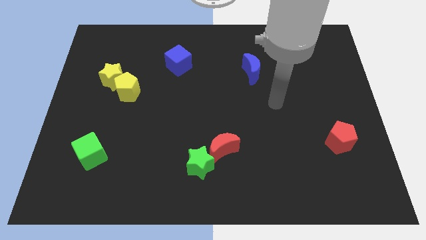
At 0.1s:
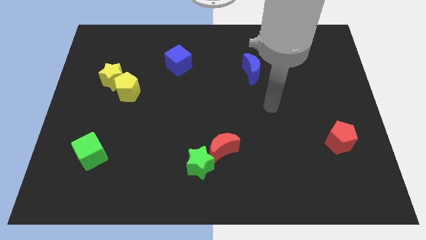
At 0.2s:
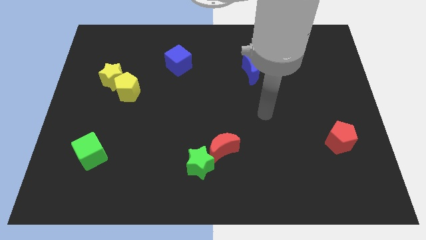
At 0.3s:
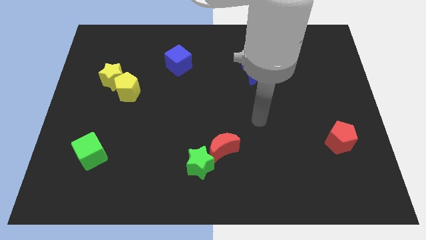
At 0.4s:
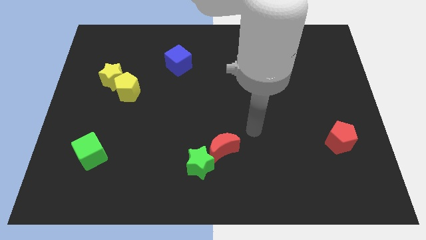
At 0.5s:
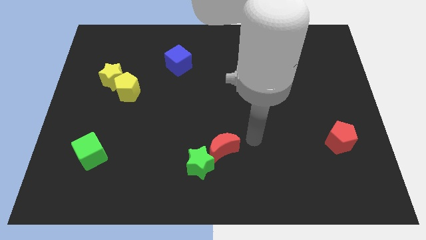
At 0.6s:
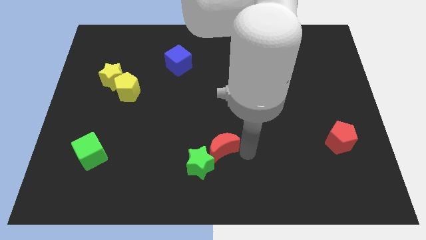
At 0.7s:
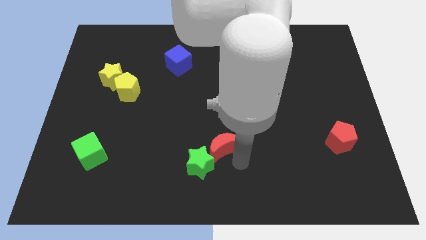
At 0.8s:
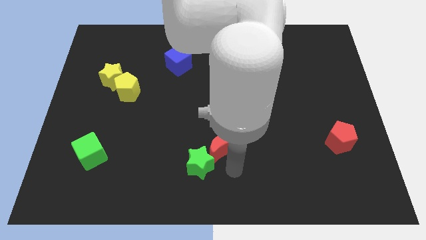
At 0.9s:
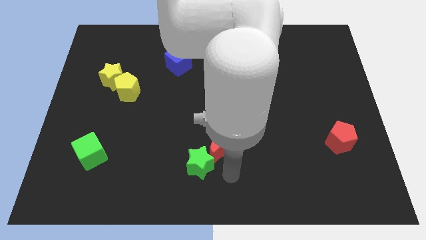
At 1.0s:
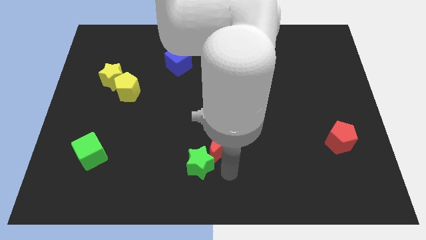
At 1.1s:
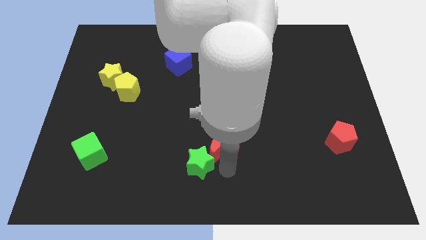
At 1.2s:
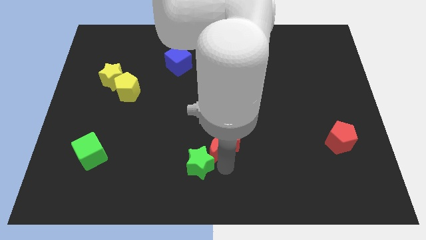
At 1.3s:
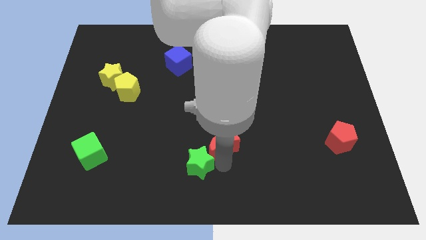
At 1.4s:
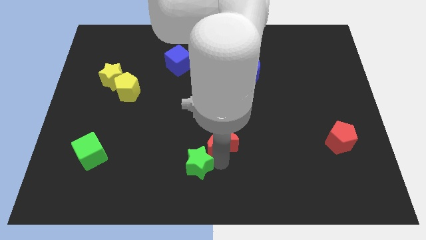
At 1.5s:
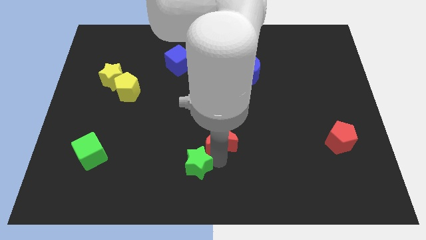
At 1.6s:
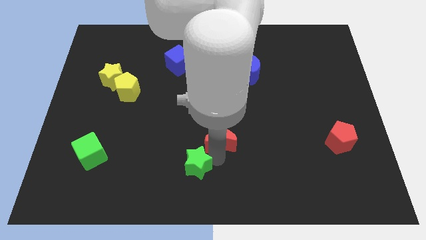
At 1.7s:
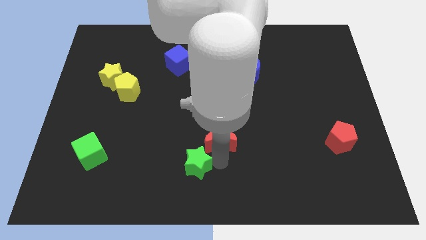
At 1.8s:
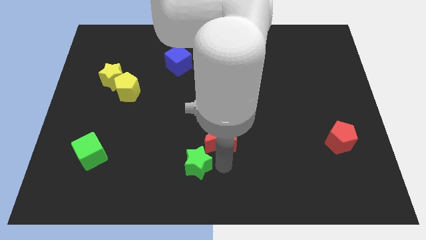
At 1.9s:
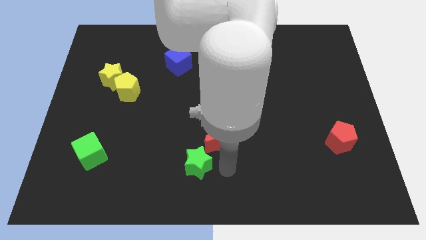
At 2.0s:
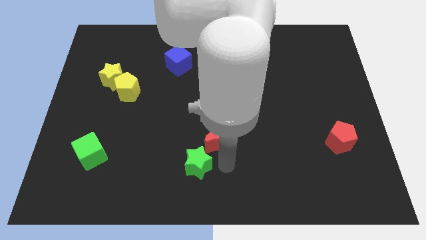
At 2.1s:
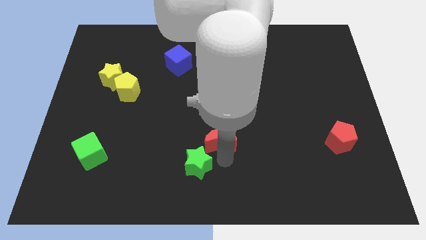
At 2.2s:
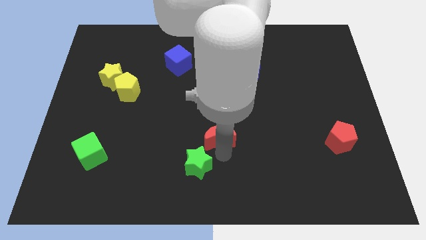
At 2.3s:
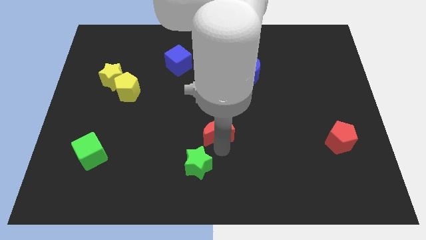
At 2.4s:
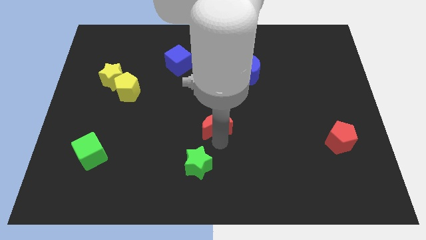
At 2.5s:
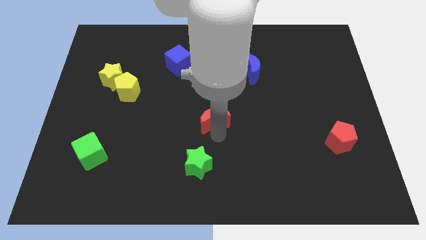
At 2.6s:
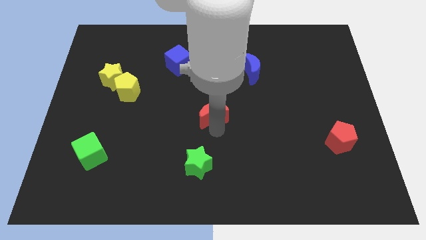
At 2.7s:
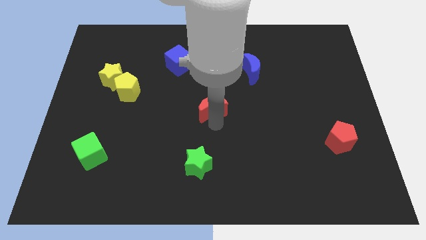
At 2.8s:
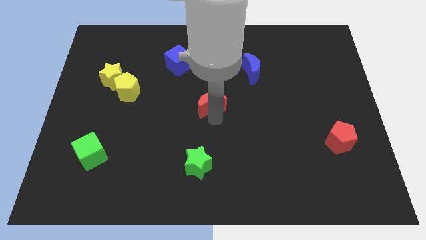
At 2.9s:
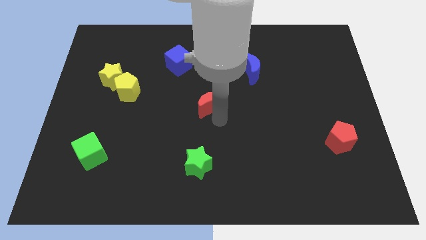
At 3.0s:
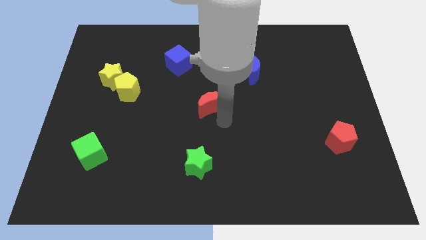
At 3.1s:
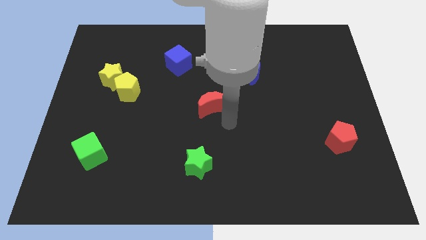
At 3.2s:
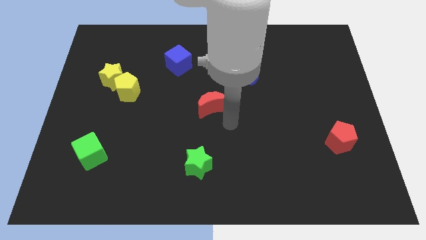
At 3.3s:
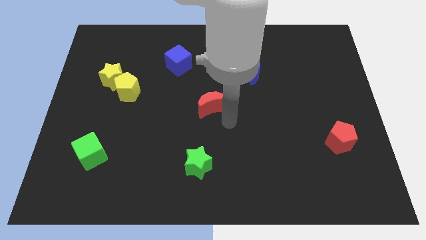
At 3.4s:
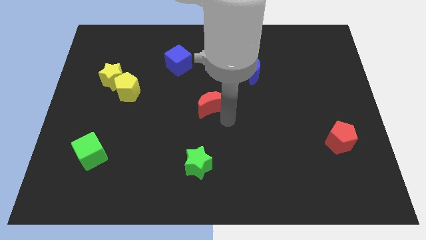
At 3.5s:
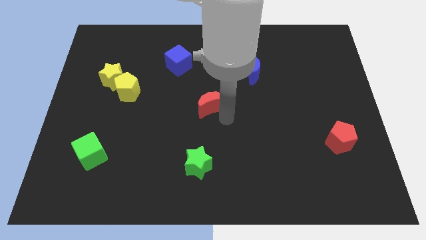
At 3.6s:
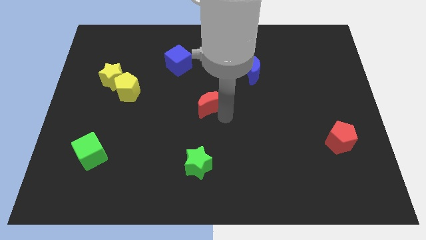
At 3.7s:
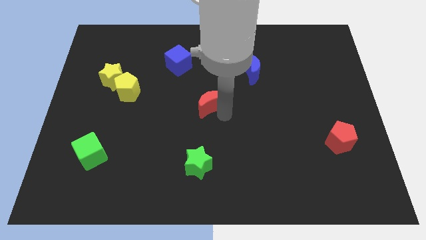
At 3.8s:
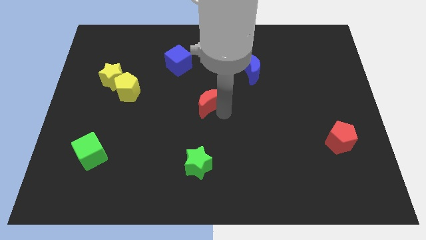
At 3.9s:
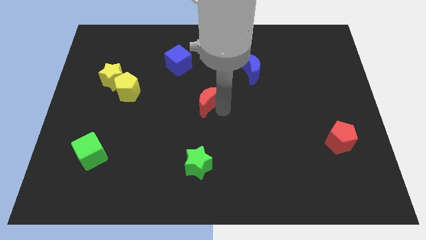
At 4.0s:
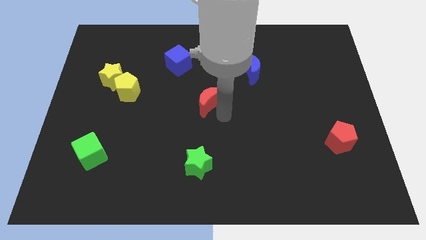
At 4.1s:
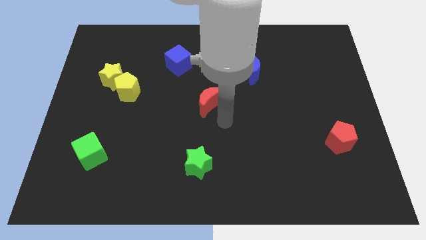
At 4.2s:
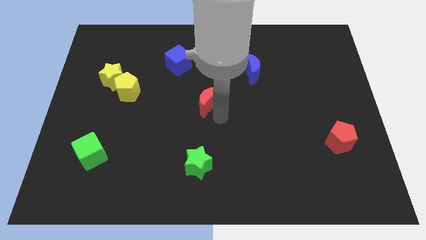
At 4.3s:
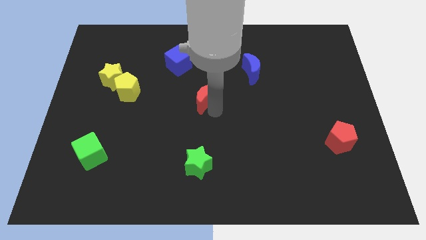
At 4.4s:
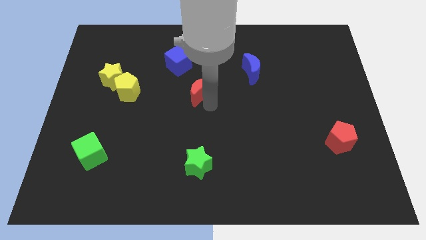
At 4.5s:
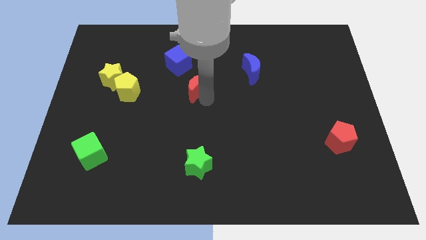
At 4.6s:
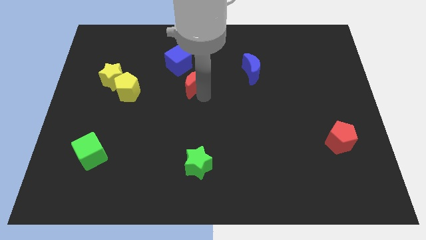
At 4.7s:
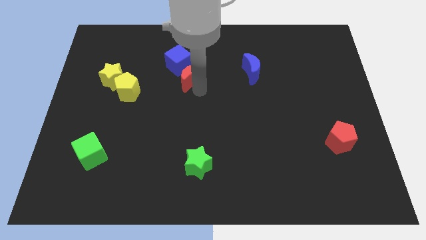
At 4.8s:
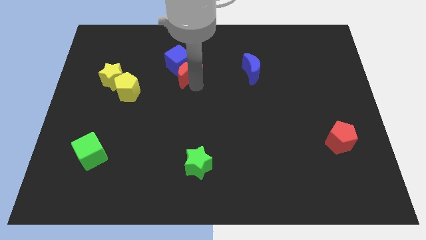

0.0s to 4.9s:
put the red moon next to the blue cube

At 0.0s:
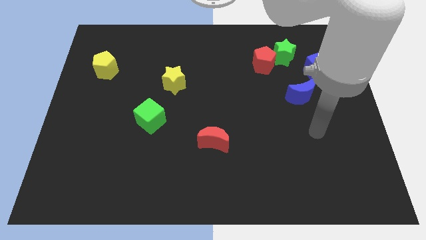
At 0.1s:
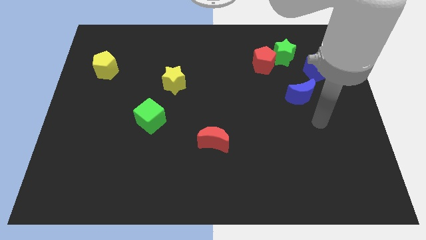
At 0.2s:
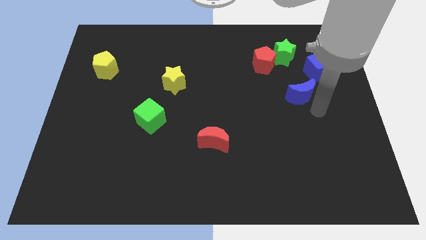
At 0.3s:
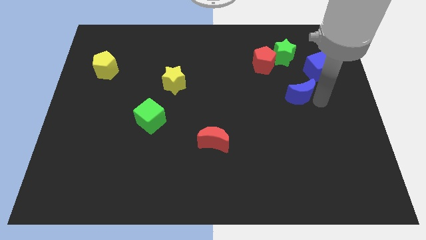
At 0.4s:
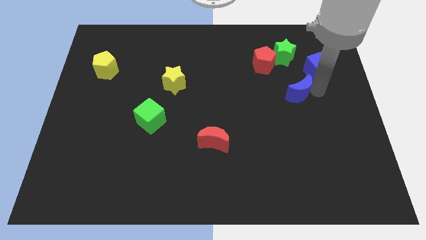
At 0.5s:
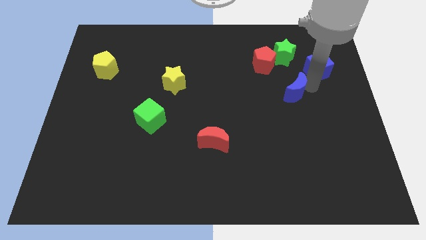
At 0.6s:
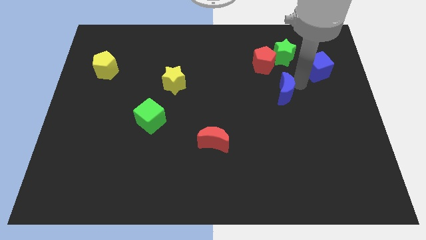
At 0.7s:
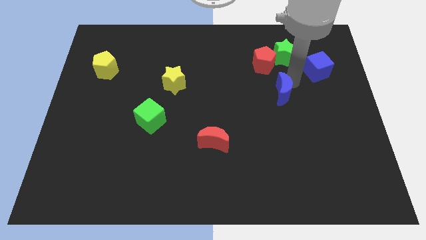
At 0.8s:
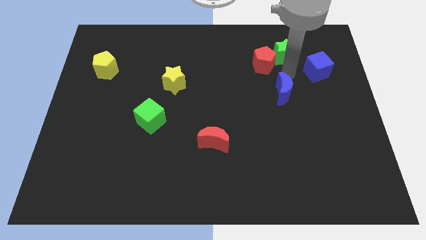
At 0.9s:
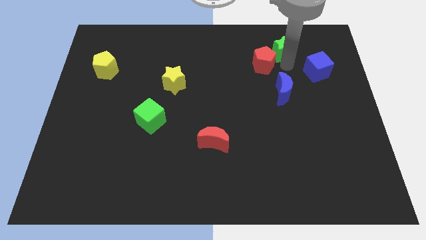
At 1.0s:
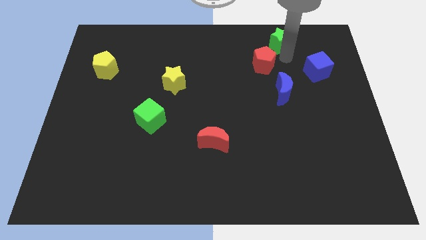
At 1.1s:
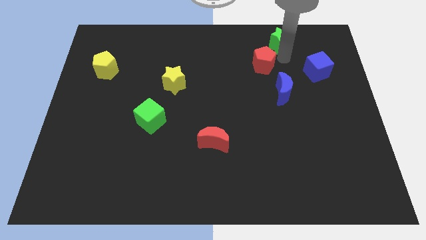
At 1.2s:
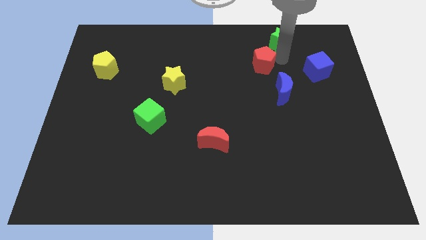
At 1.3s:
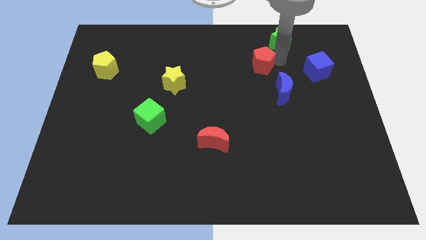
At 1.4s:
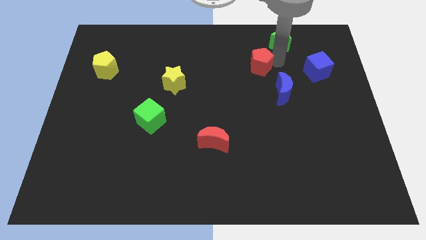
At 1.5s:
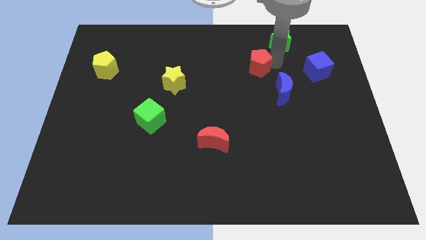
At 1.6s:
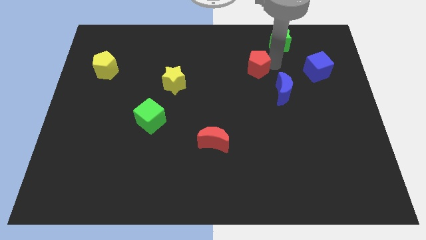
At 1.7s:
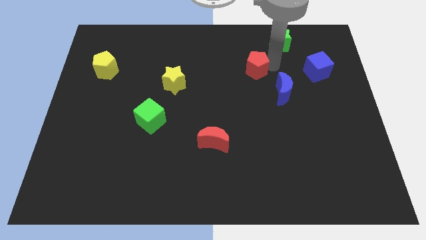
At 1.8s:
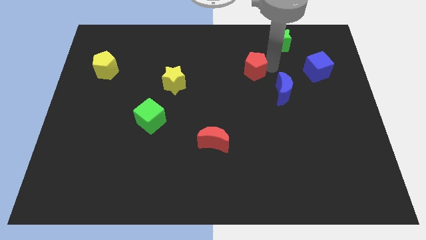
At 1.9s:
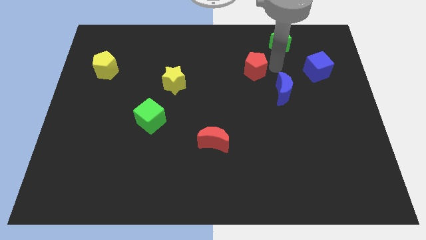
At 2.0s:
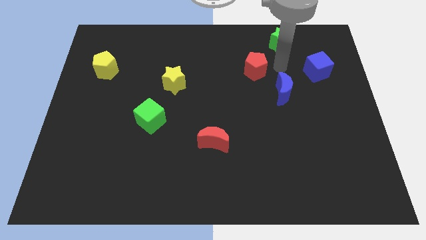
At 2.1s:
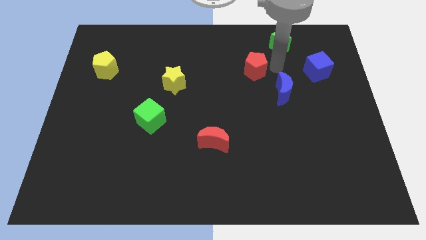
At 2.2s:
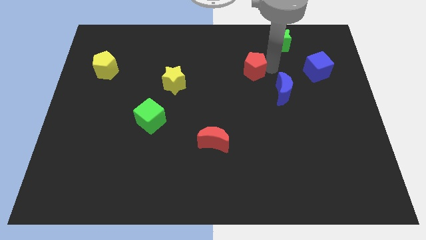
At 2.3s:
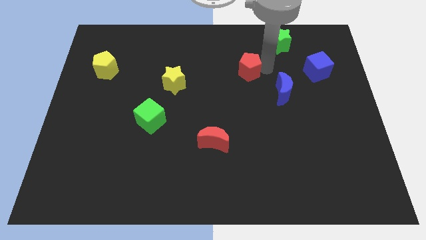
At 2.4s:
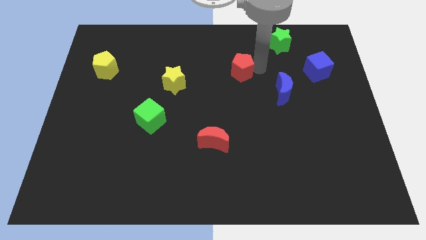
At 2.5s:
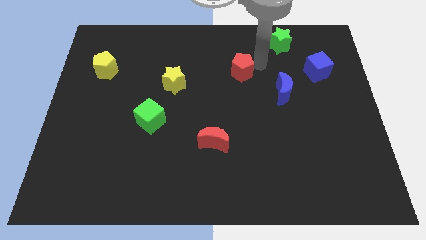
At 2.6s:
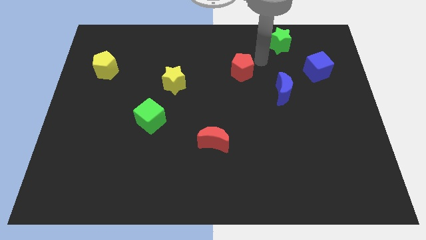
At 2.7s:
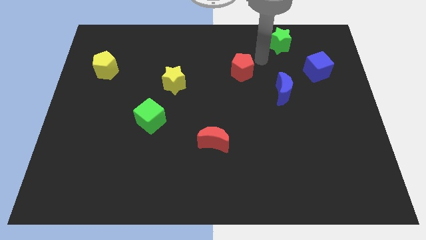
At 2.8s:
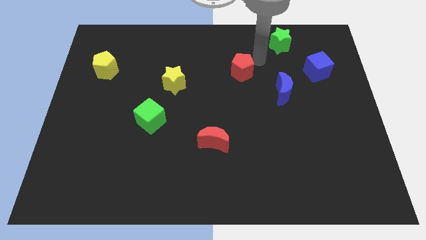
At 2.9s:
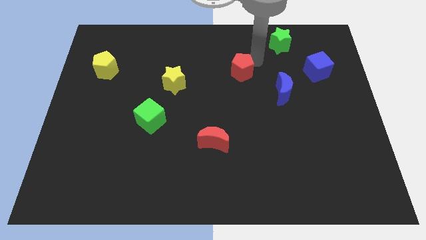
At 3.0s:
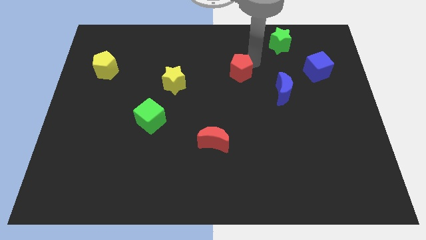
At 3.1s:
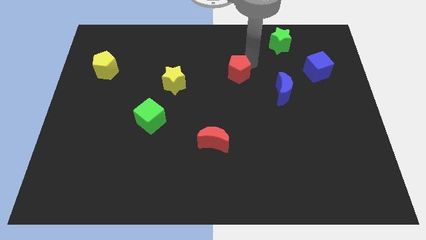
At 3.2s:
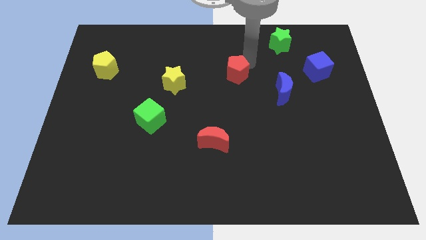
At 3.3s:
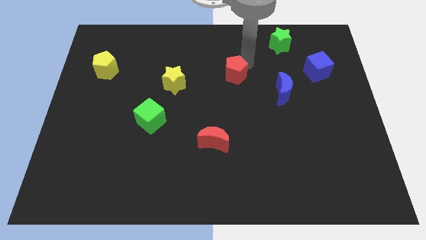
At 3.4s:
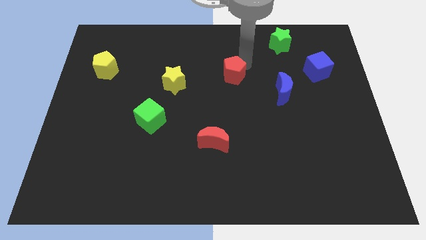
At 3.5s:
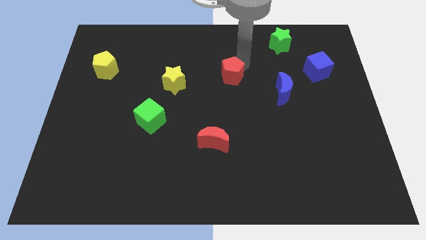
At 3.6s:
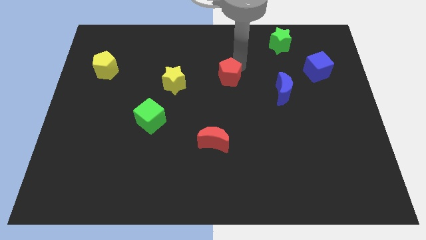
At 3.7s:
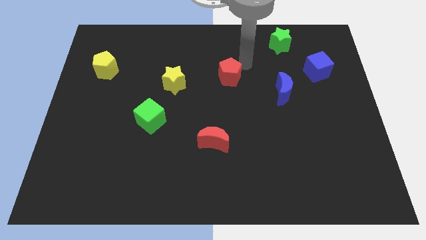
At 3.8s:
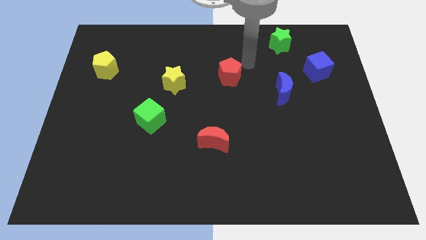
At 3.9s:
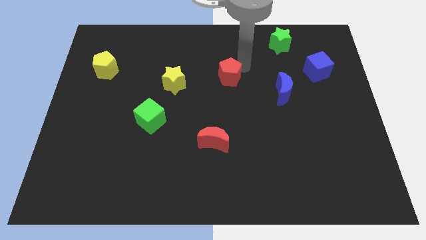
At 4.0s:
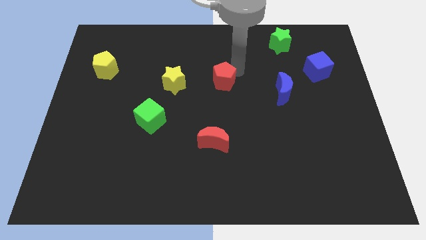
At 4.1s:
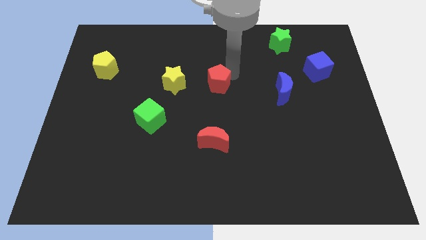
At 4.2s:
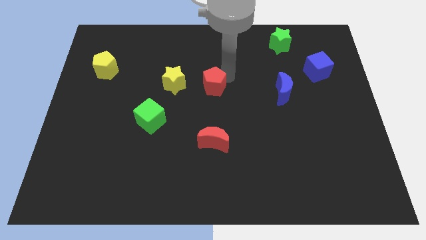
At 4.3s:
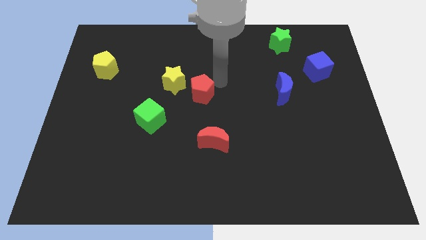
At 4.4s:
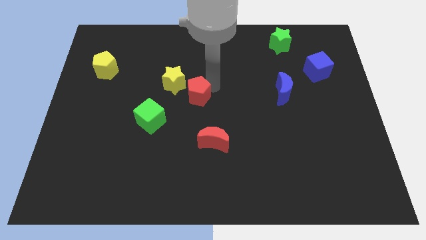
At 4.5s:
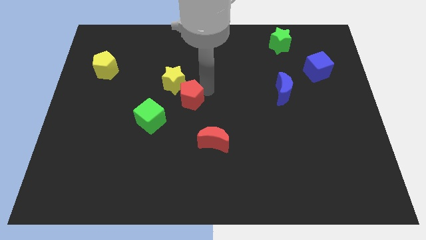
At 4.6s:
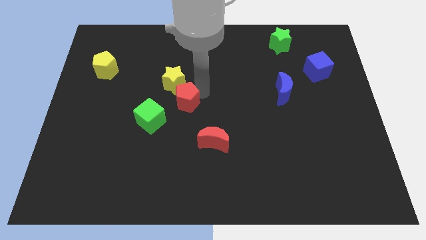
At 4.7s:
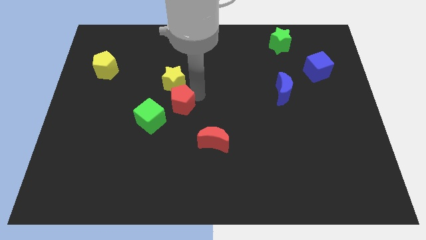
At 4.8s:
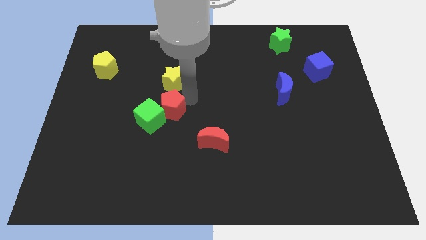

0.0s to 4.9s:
push the red pentagon towards the green cube
